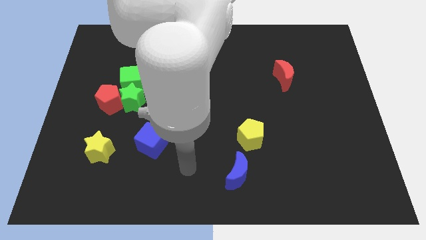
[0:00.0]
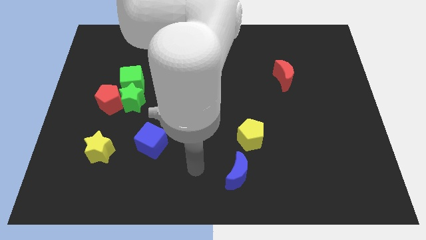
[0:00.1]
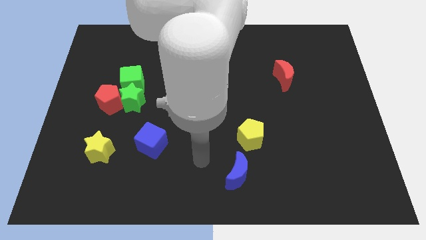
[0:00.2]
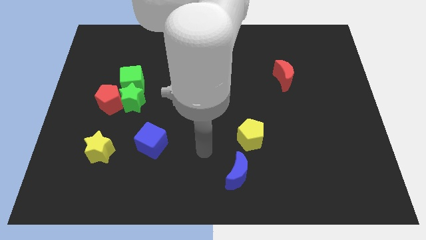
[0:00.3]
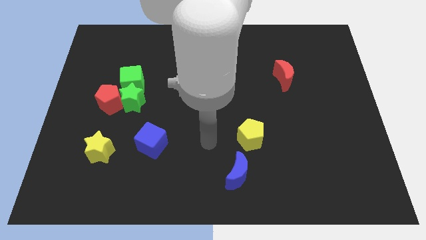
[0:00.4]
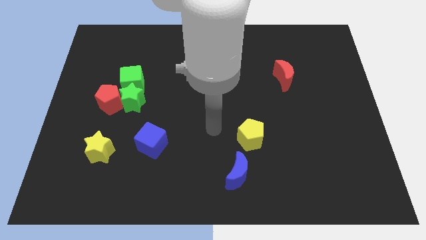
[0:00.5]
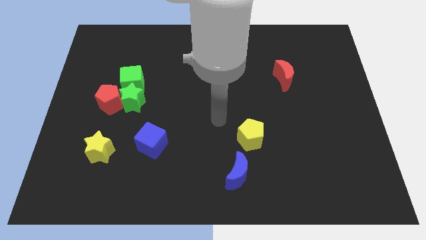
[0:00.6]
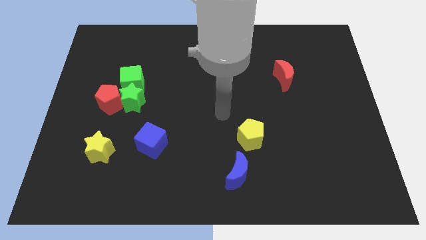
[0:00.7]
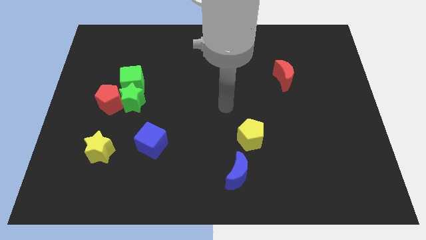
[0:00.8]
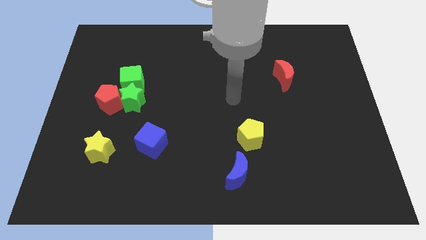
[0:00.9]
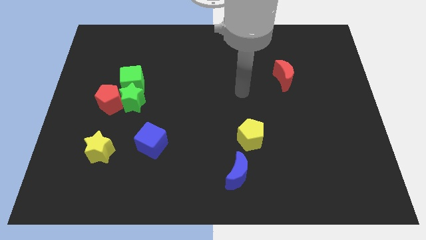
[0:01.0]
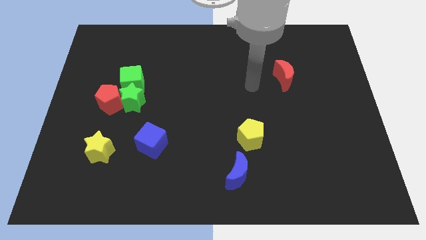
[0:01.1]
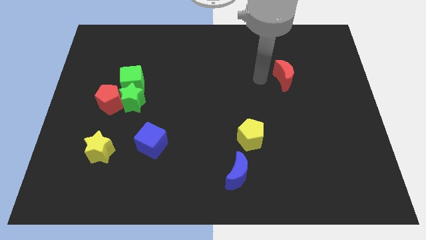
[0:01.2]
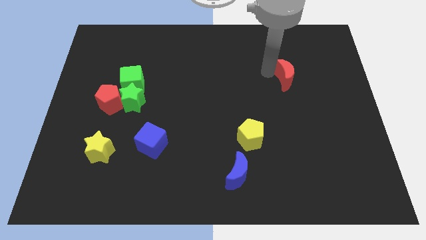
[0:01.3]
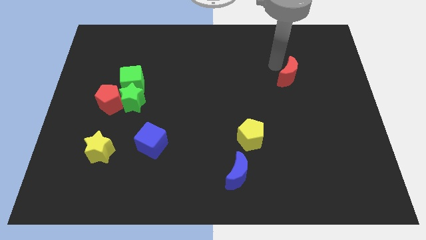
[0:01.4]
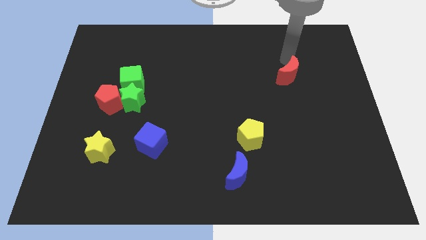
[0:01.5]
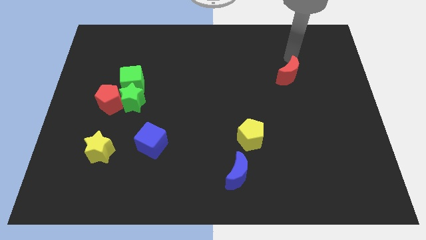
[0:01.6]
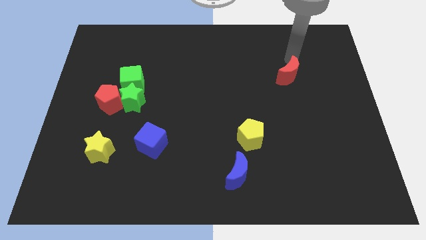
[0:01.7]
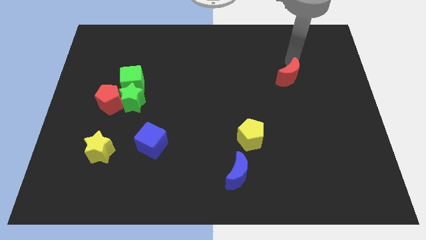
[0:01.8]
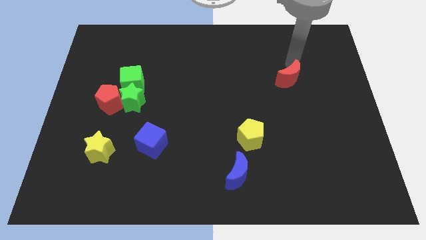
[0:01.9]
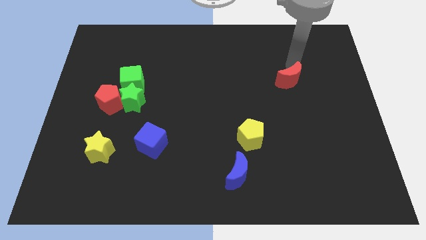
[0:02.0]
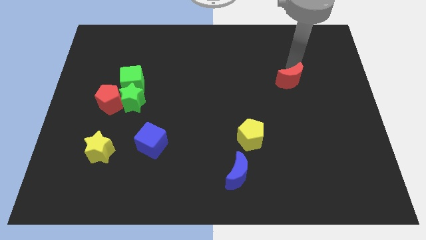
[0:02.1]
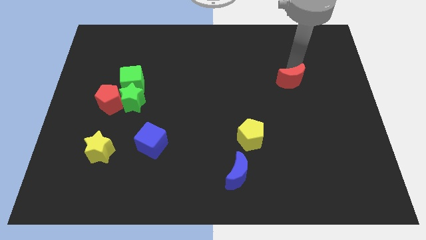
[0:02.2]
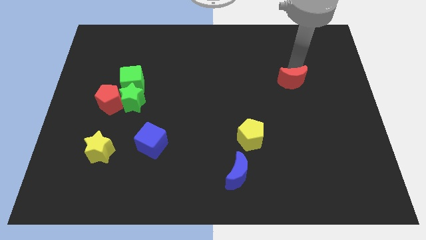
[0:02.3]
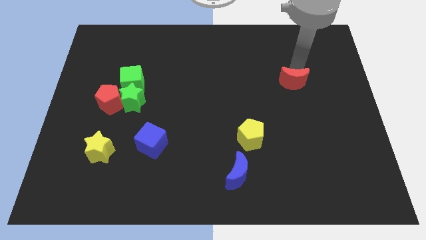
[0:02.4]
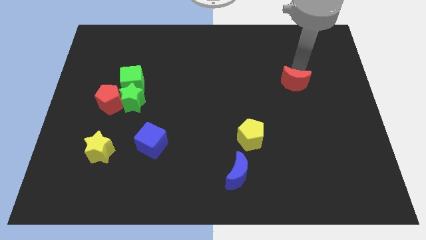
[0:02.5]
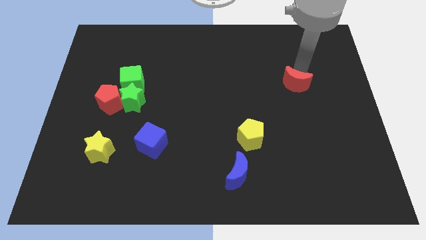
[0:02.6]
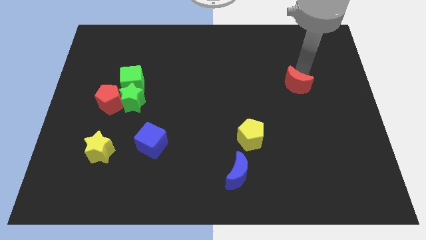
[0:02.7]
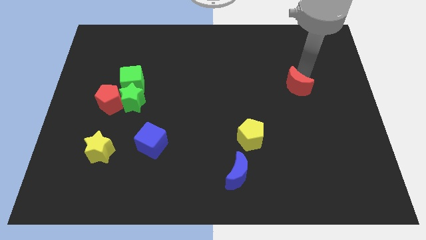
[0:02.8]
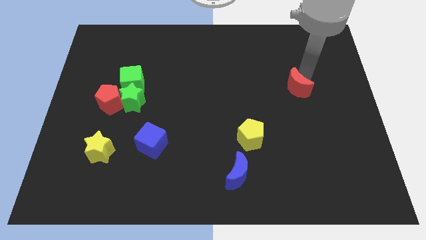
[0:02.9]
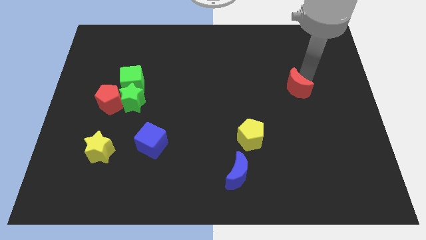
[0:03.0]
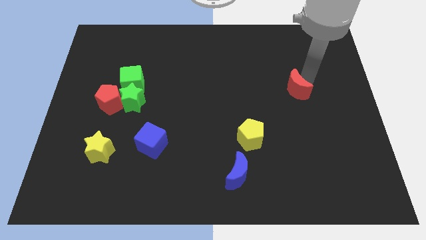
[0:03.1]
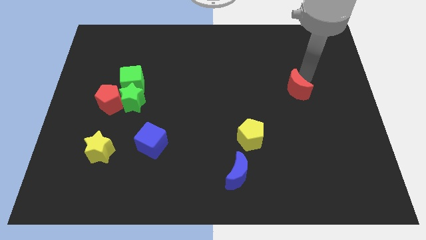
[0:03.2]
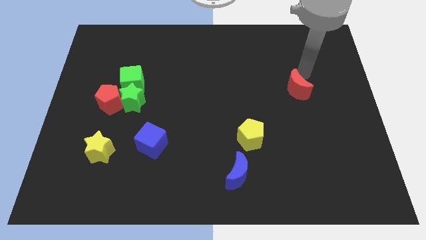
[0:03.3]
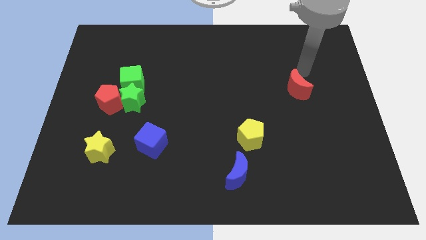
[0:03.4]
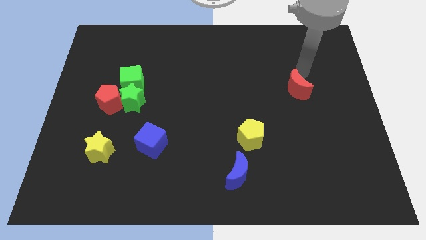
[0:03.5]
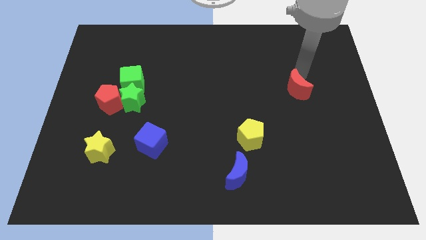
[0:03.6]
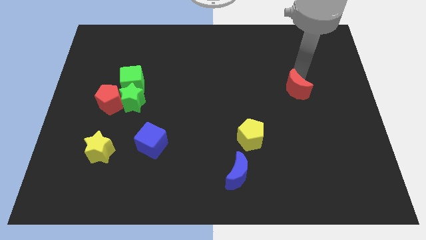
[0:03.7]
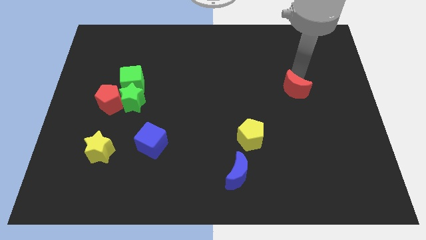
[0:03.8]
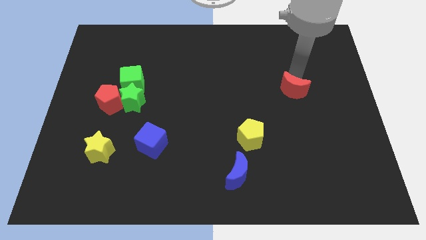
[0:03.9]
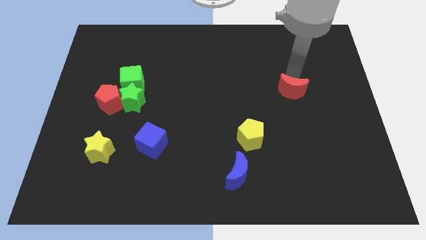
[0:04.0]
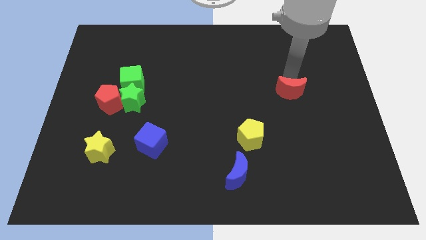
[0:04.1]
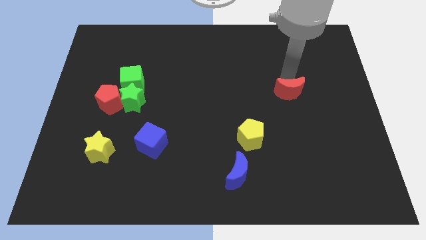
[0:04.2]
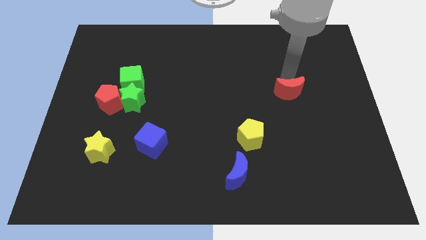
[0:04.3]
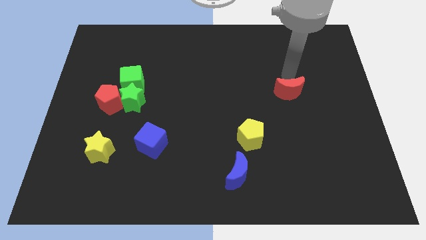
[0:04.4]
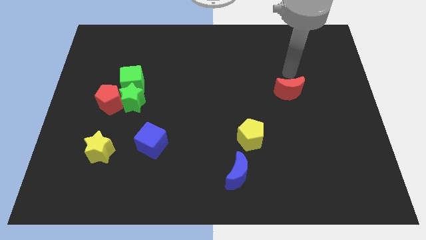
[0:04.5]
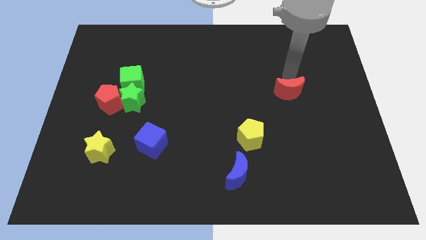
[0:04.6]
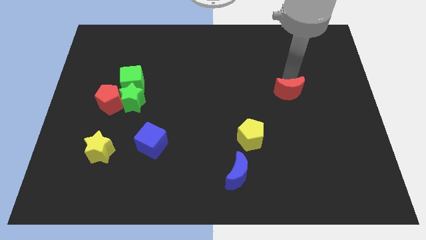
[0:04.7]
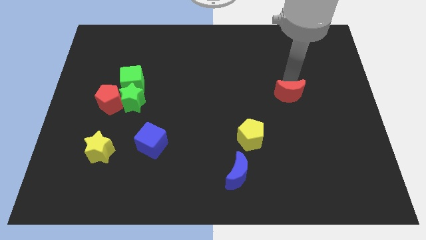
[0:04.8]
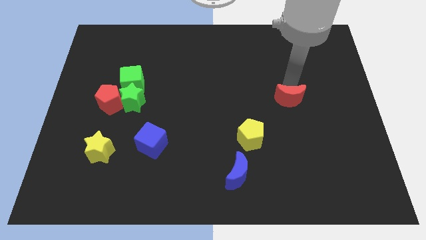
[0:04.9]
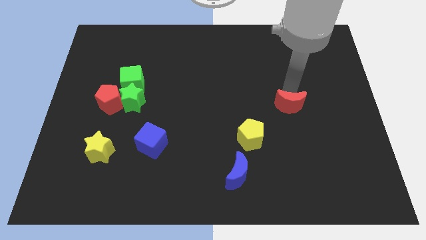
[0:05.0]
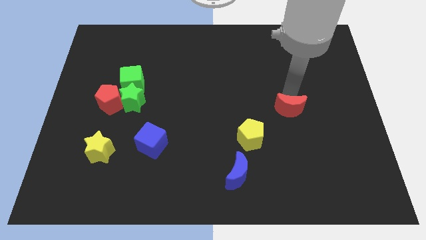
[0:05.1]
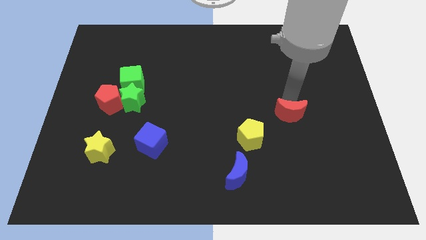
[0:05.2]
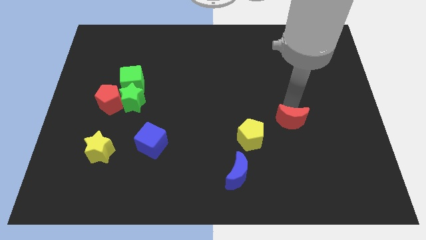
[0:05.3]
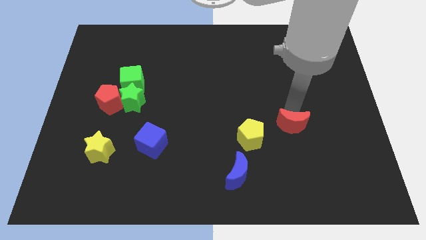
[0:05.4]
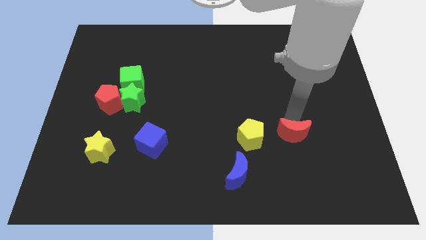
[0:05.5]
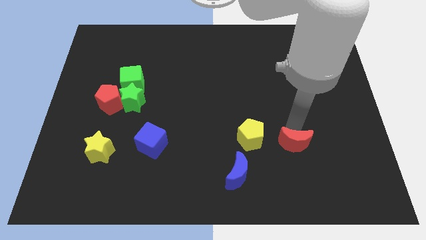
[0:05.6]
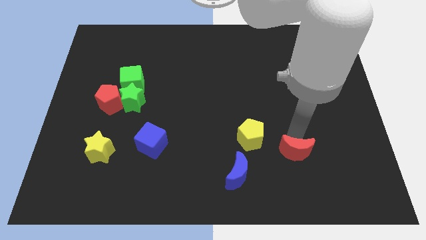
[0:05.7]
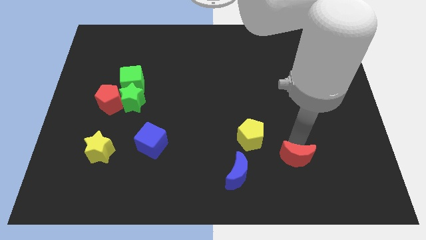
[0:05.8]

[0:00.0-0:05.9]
put the red moon right of the blue moon
